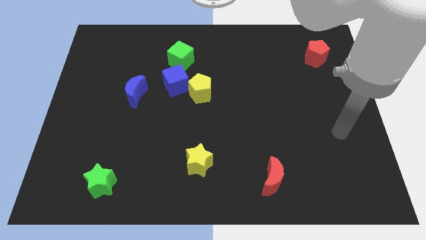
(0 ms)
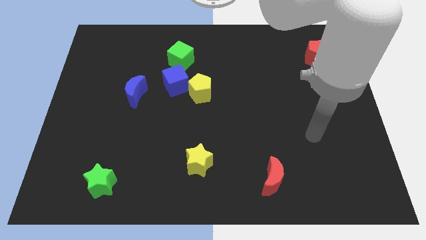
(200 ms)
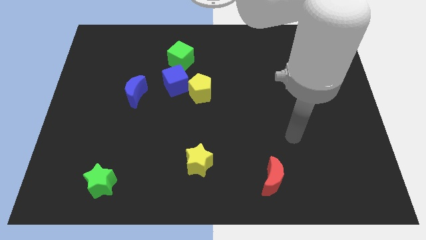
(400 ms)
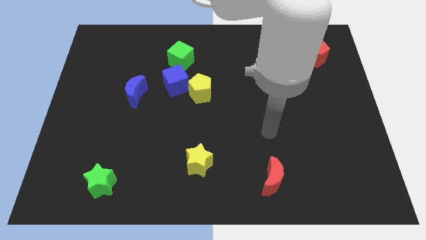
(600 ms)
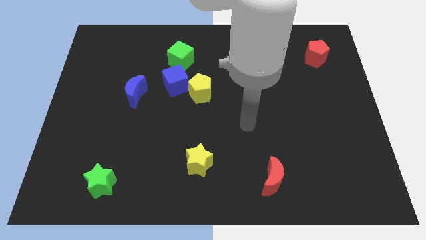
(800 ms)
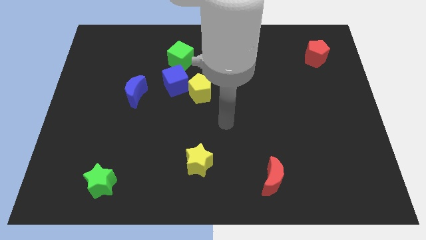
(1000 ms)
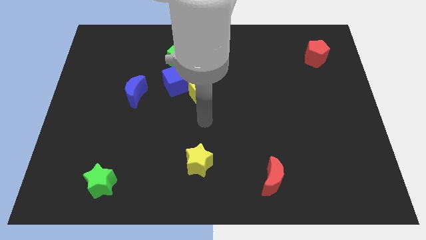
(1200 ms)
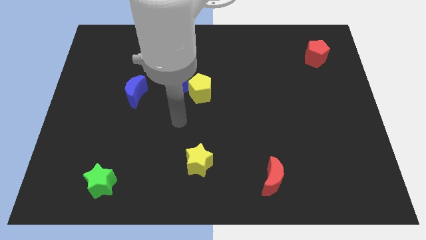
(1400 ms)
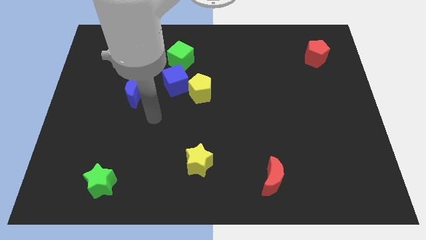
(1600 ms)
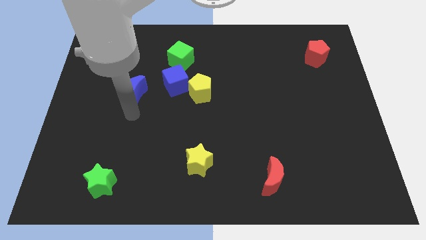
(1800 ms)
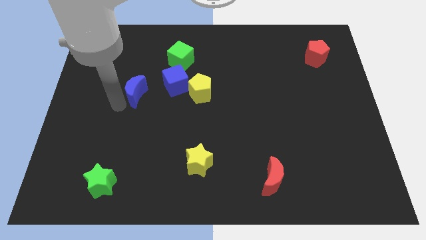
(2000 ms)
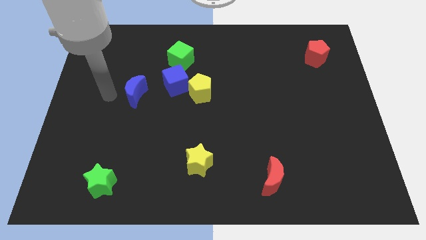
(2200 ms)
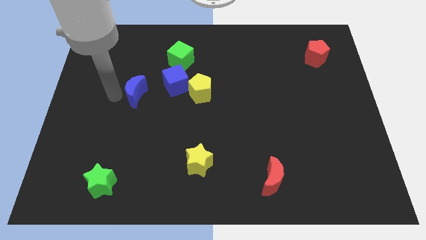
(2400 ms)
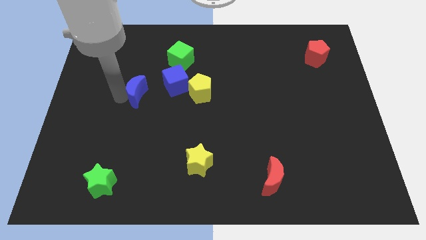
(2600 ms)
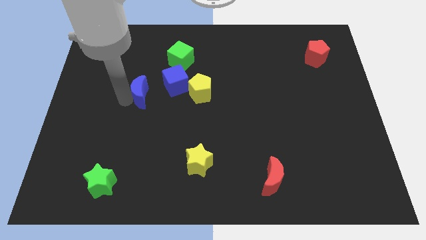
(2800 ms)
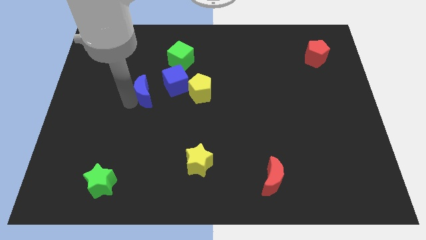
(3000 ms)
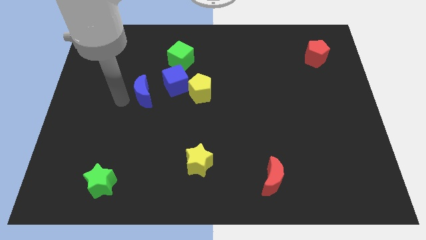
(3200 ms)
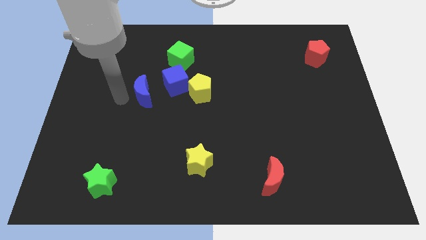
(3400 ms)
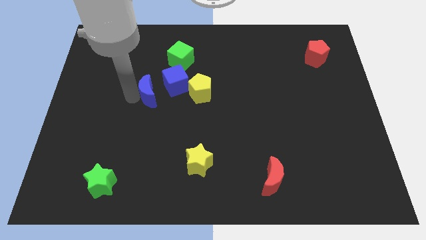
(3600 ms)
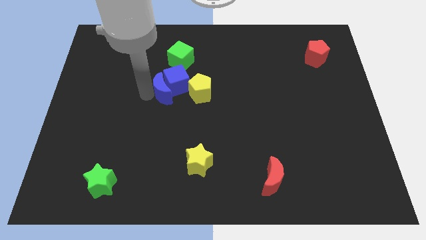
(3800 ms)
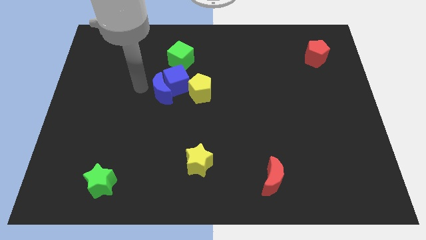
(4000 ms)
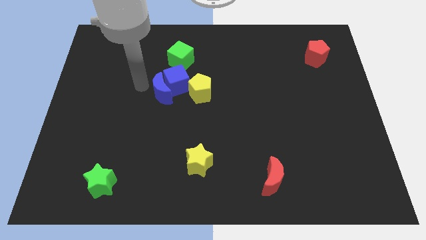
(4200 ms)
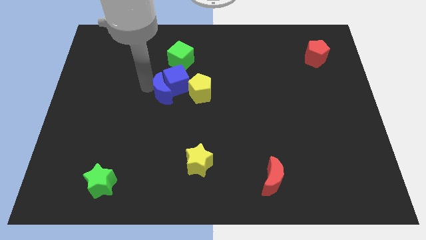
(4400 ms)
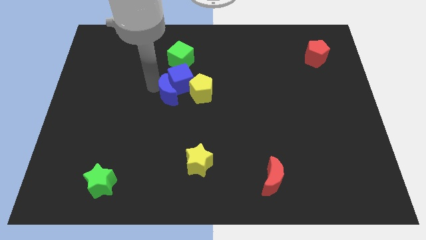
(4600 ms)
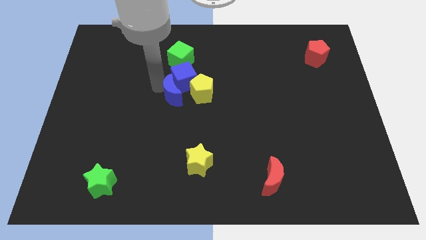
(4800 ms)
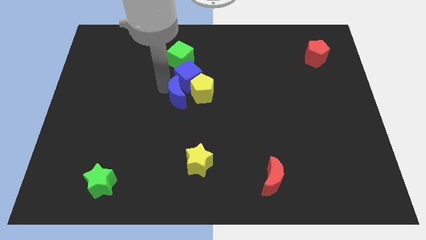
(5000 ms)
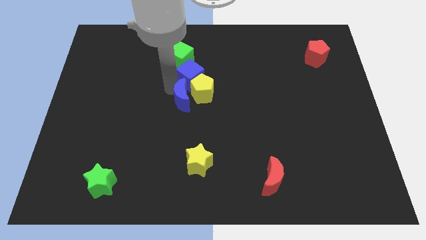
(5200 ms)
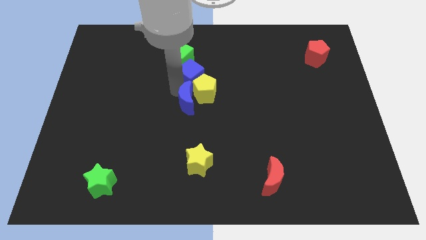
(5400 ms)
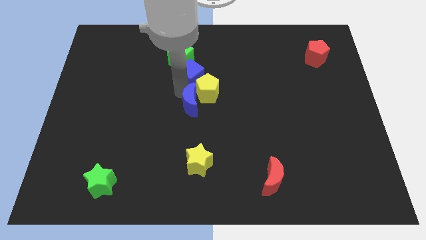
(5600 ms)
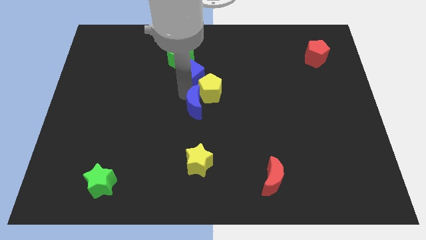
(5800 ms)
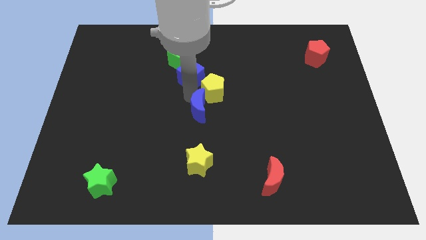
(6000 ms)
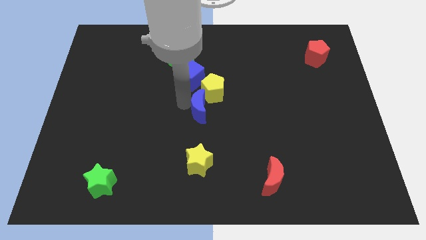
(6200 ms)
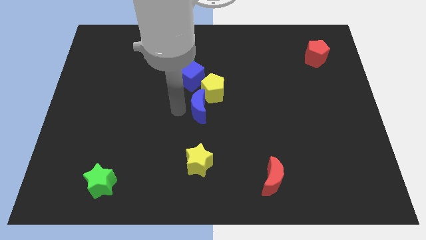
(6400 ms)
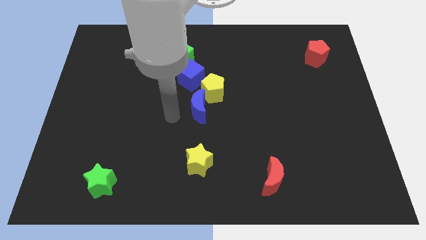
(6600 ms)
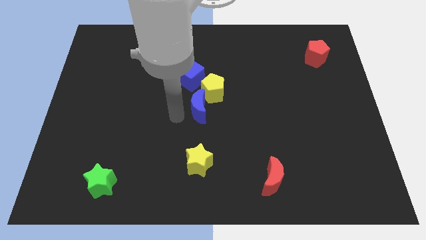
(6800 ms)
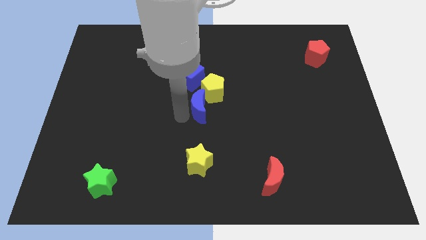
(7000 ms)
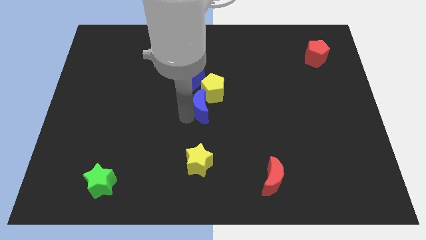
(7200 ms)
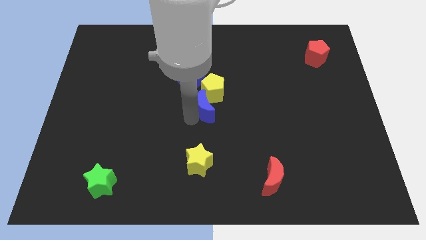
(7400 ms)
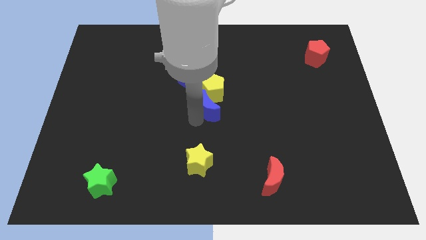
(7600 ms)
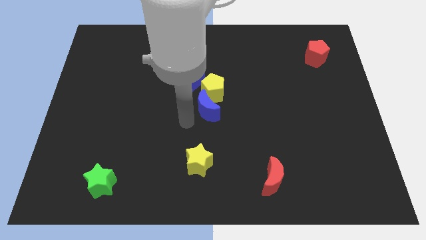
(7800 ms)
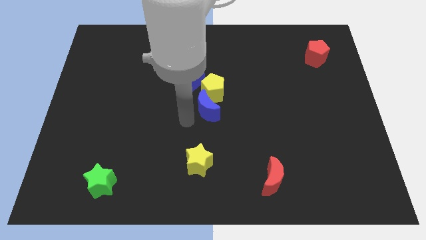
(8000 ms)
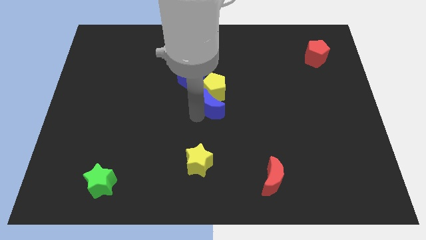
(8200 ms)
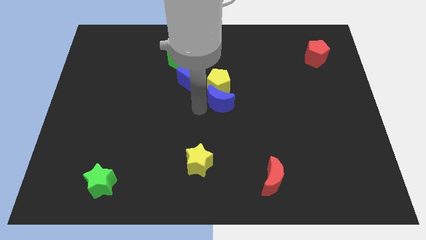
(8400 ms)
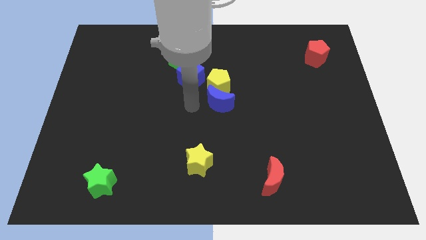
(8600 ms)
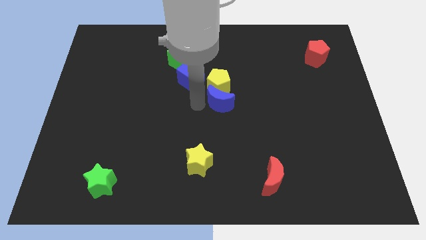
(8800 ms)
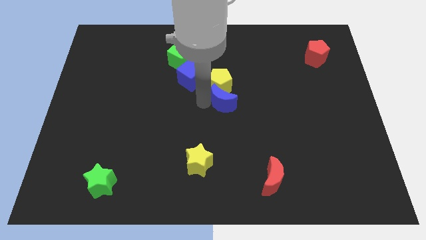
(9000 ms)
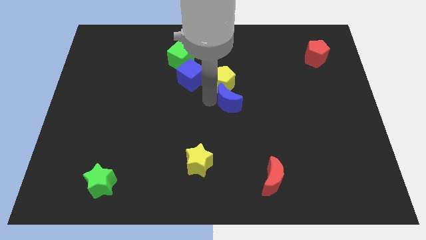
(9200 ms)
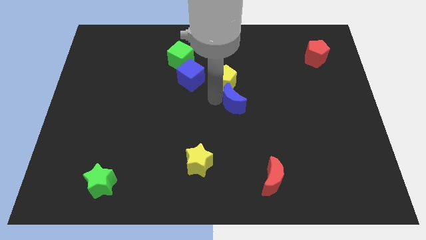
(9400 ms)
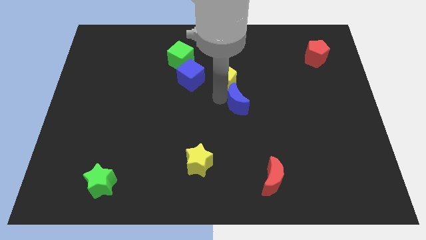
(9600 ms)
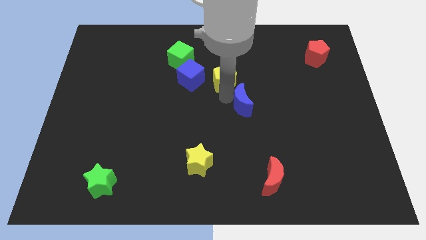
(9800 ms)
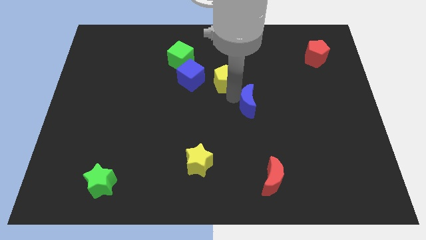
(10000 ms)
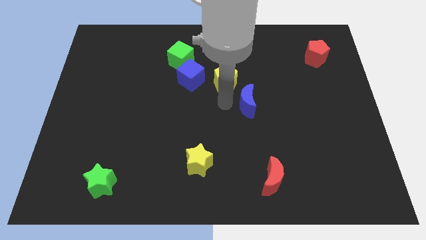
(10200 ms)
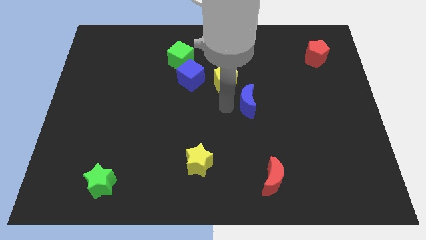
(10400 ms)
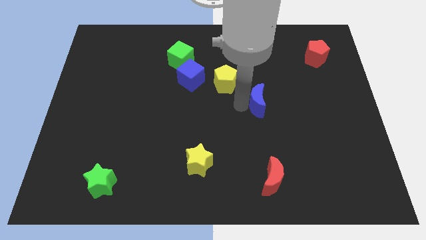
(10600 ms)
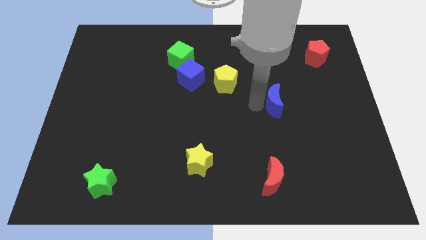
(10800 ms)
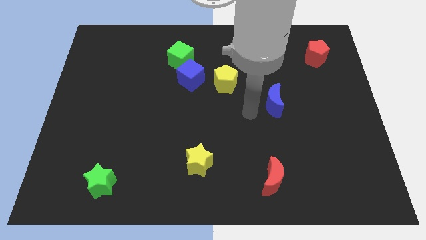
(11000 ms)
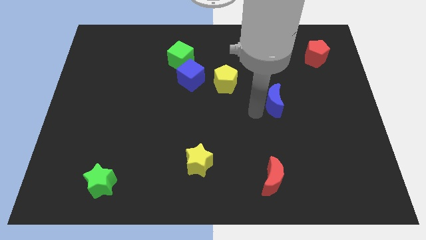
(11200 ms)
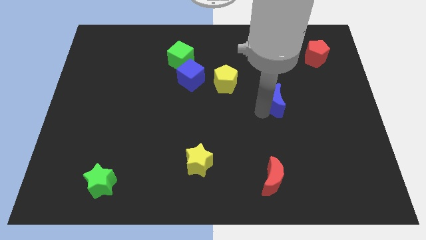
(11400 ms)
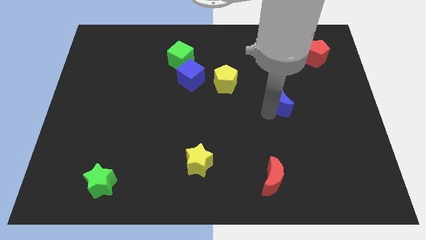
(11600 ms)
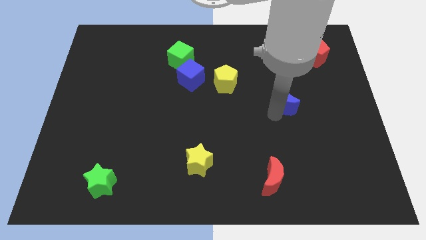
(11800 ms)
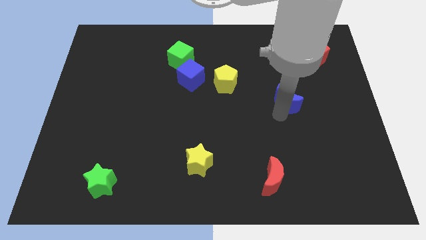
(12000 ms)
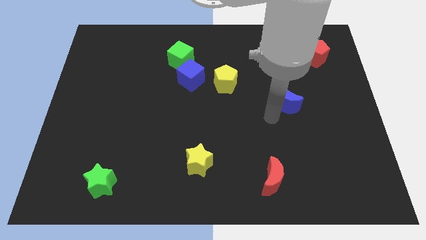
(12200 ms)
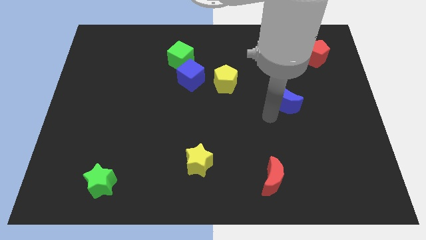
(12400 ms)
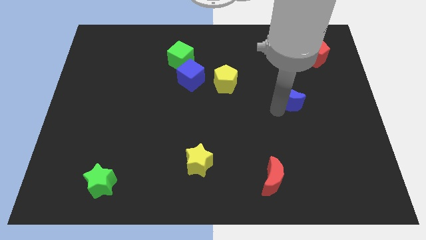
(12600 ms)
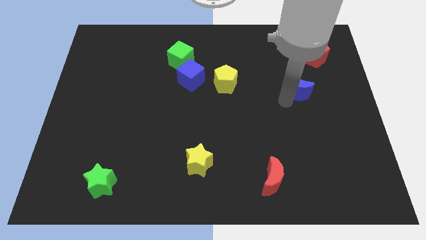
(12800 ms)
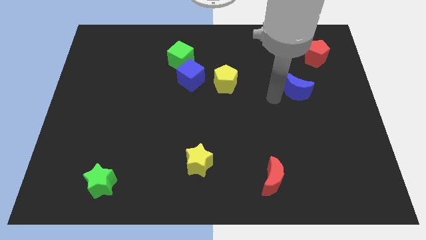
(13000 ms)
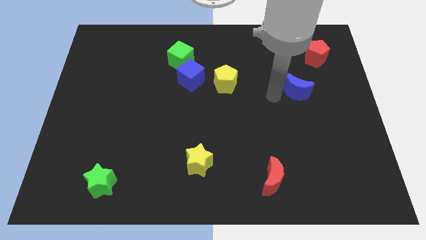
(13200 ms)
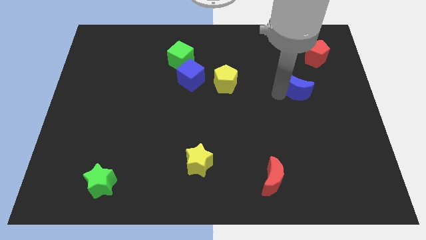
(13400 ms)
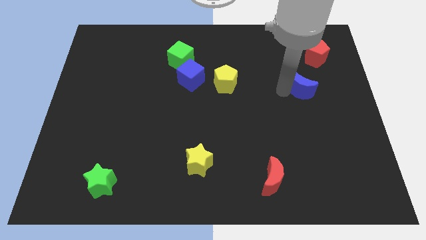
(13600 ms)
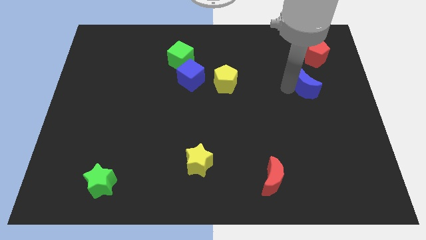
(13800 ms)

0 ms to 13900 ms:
push the blue moon to the bottom side of the red pentagon
